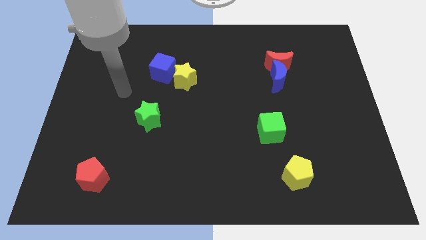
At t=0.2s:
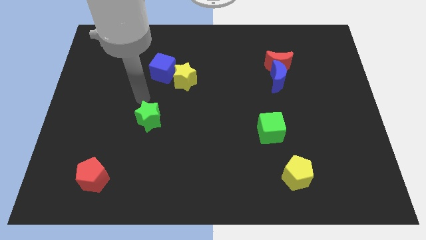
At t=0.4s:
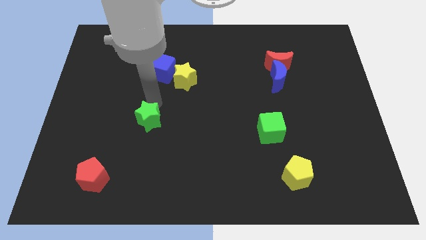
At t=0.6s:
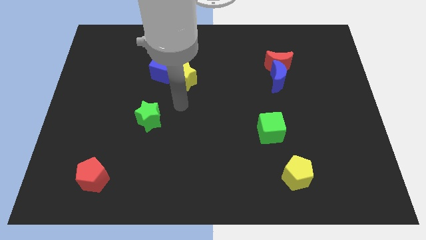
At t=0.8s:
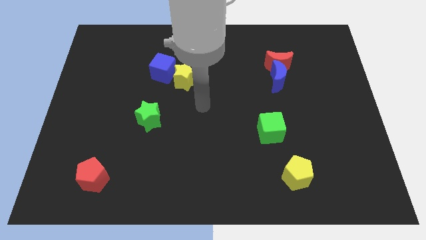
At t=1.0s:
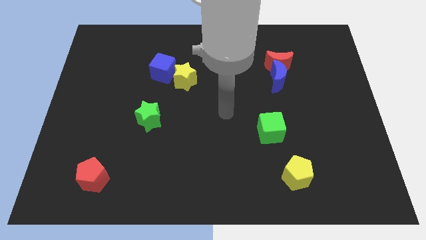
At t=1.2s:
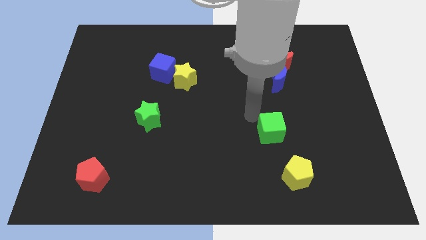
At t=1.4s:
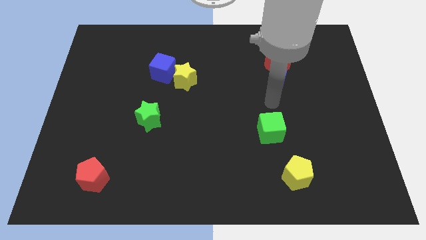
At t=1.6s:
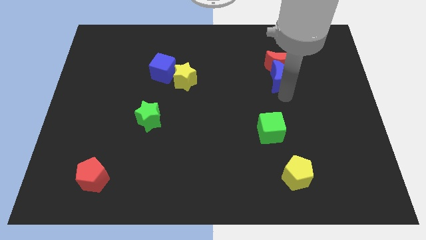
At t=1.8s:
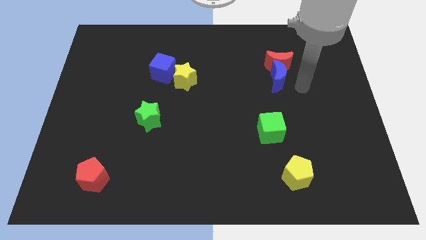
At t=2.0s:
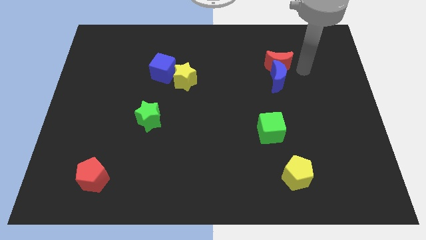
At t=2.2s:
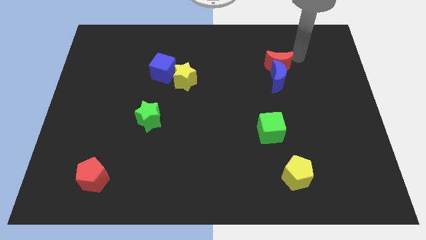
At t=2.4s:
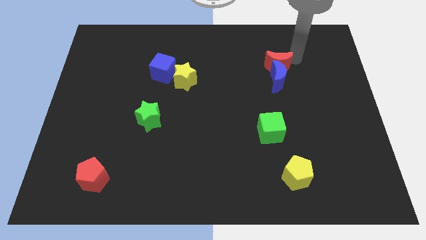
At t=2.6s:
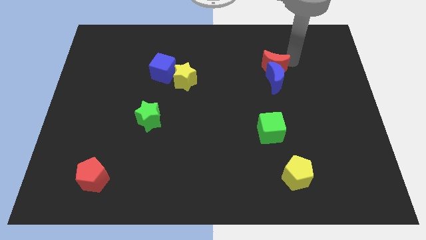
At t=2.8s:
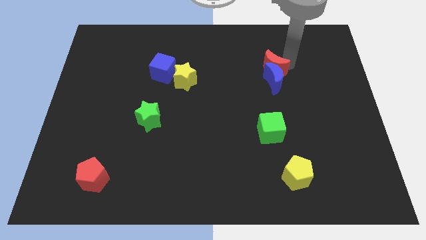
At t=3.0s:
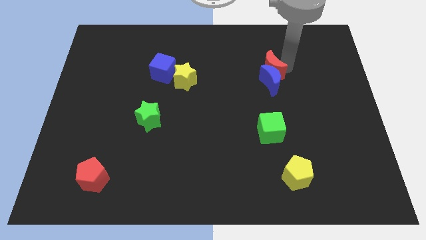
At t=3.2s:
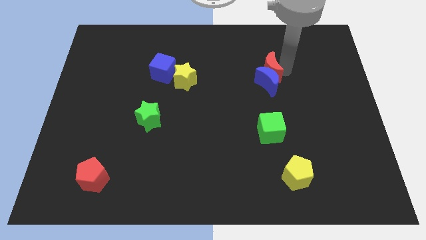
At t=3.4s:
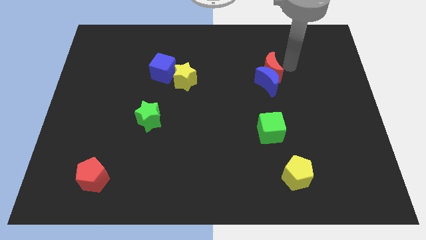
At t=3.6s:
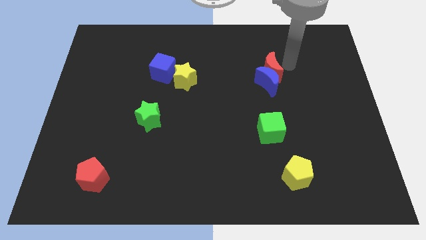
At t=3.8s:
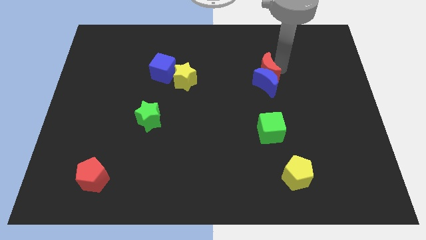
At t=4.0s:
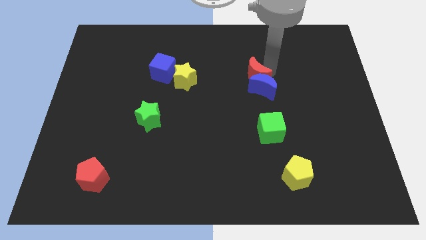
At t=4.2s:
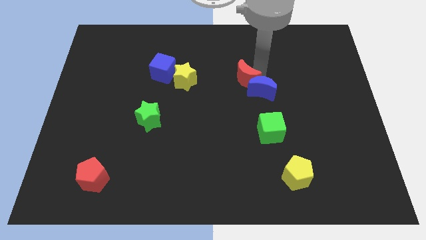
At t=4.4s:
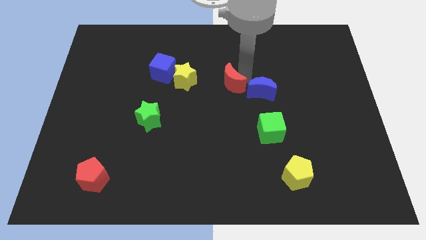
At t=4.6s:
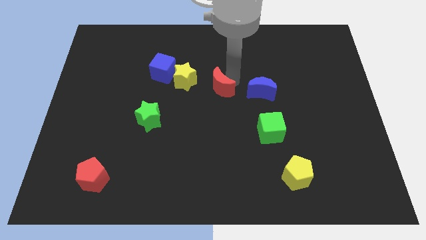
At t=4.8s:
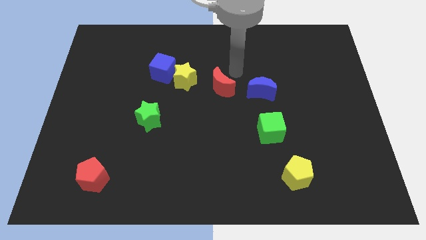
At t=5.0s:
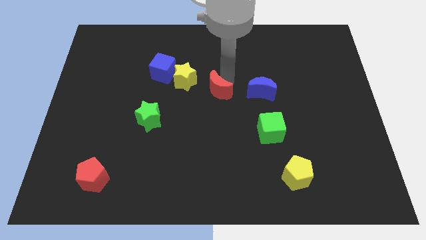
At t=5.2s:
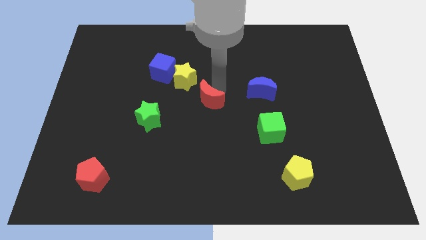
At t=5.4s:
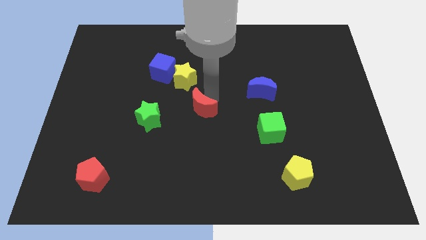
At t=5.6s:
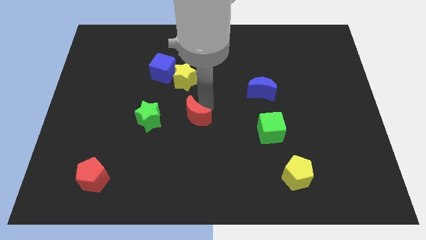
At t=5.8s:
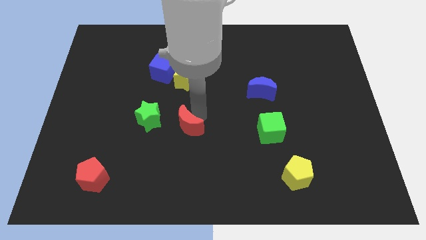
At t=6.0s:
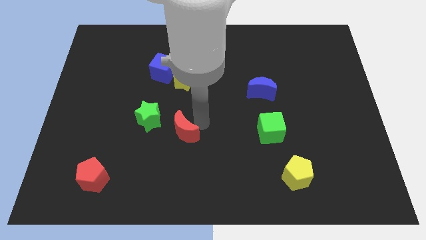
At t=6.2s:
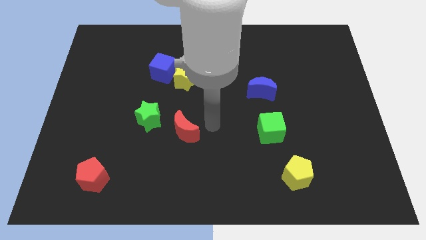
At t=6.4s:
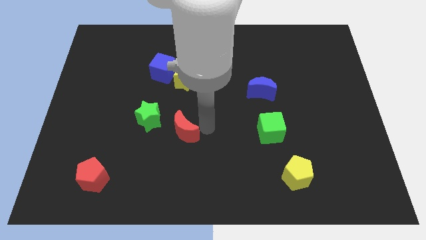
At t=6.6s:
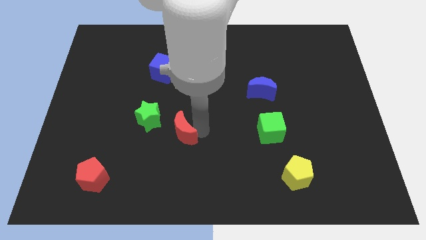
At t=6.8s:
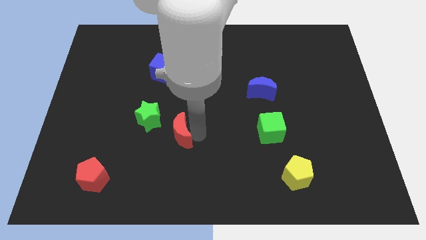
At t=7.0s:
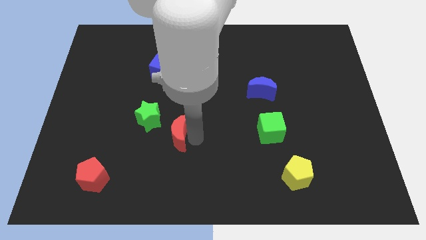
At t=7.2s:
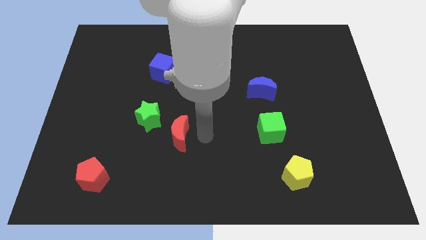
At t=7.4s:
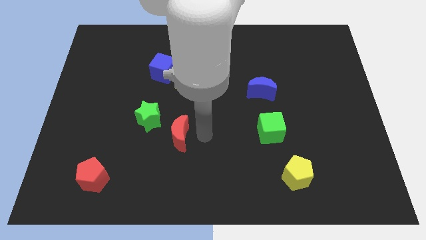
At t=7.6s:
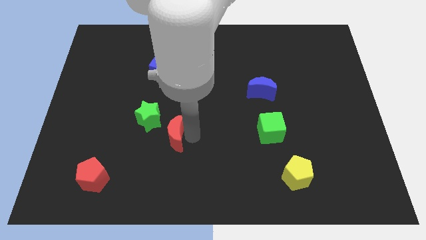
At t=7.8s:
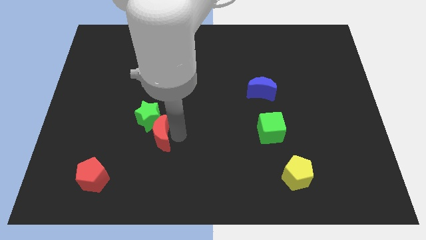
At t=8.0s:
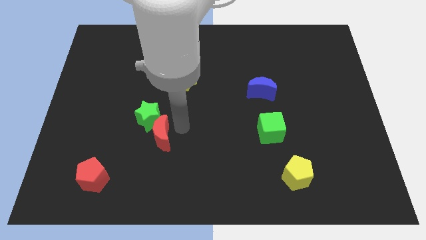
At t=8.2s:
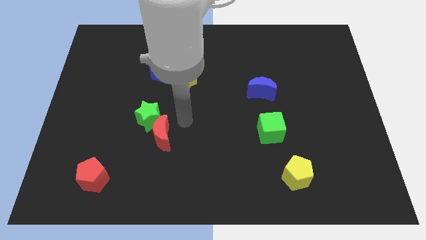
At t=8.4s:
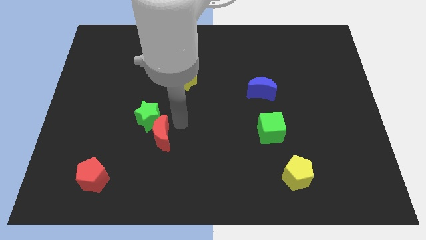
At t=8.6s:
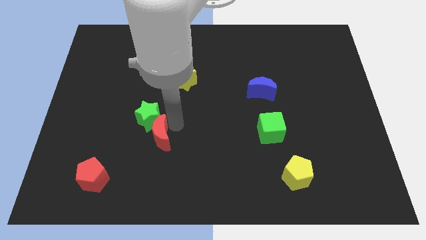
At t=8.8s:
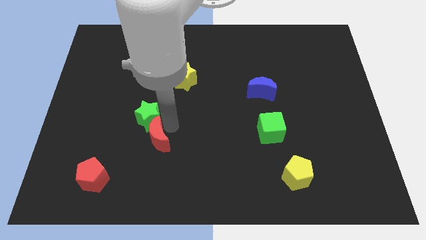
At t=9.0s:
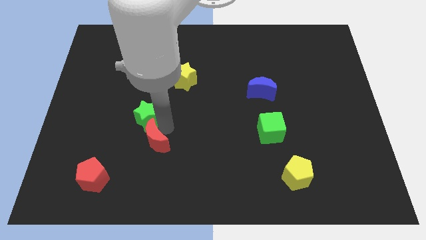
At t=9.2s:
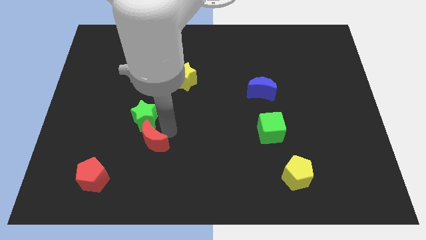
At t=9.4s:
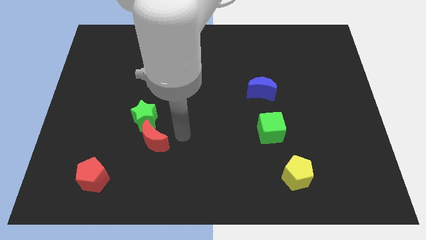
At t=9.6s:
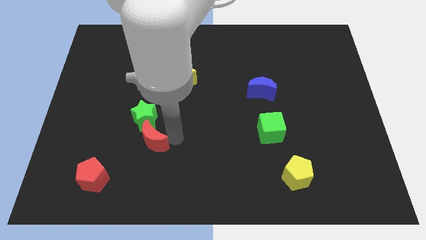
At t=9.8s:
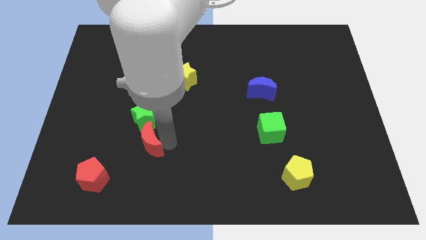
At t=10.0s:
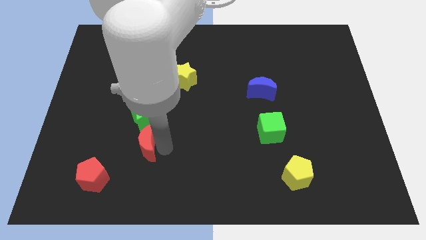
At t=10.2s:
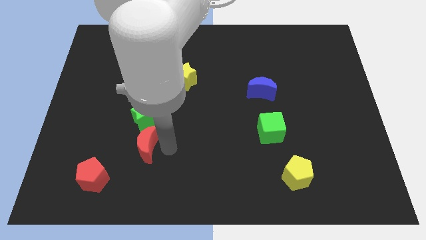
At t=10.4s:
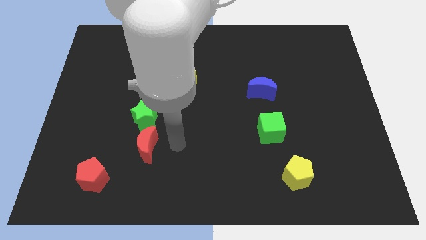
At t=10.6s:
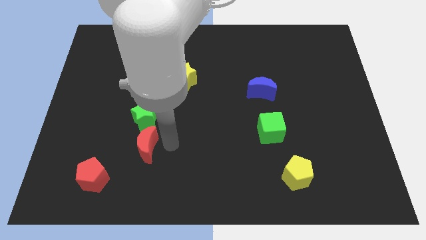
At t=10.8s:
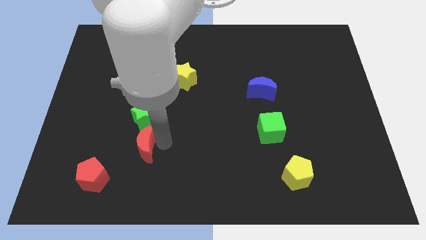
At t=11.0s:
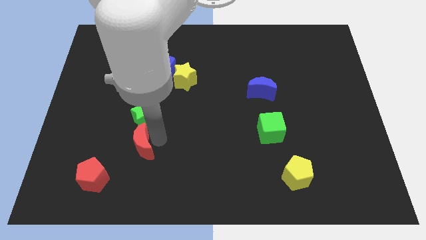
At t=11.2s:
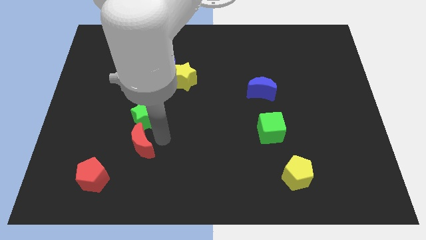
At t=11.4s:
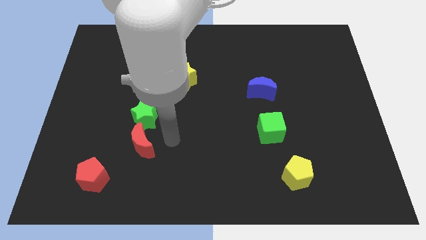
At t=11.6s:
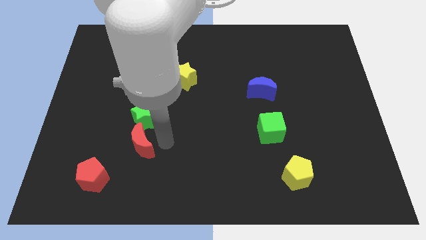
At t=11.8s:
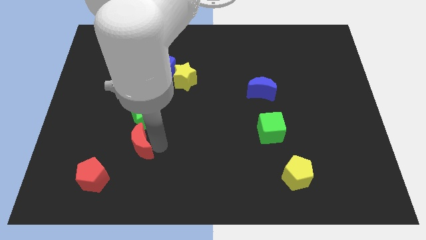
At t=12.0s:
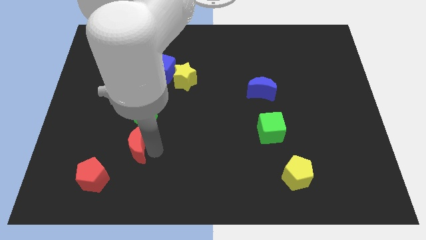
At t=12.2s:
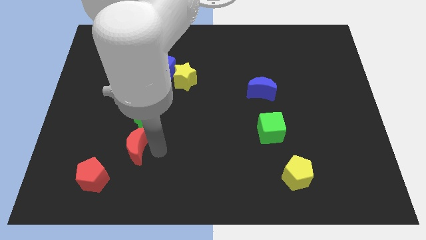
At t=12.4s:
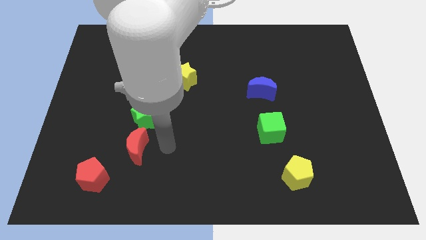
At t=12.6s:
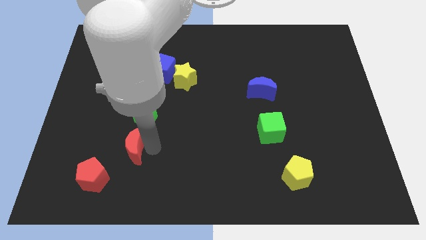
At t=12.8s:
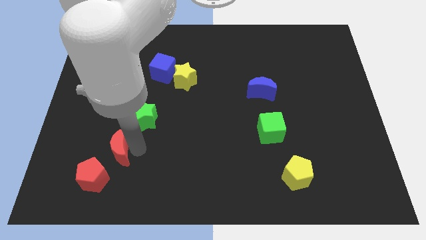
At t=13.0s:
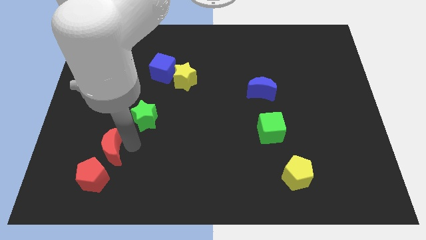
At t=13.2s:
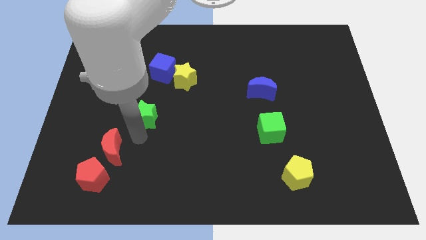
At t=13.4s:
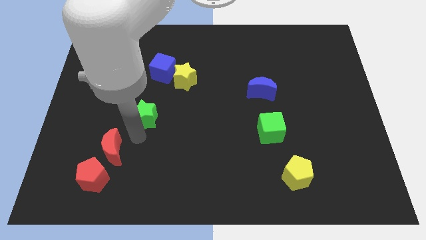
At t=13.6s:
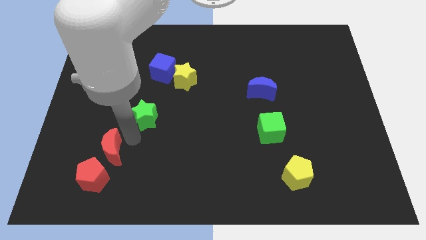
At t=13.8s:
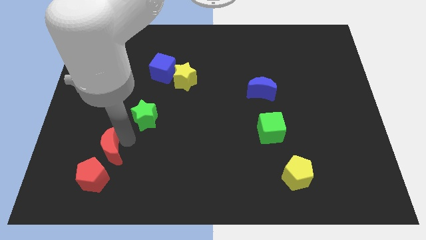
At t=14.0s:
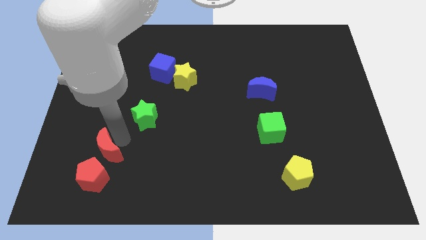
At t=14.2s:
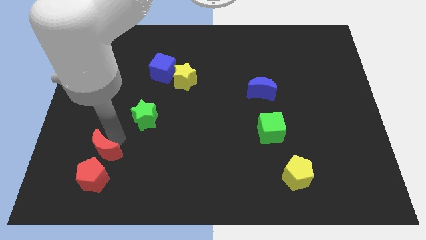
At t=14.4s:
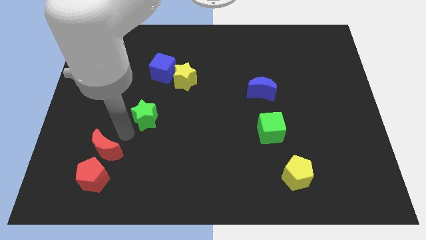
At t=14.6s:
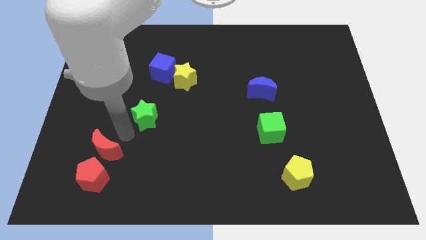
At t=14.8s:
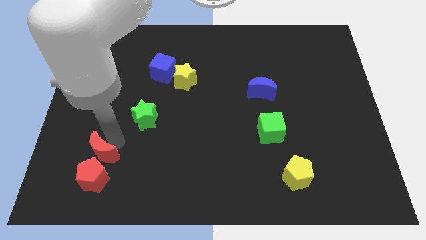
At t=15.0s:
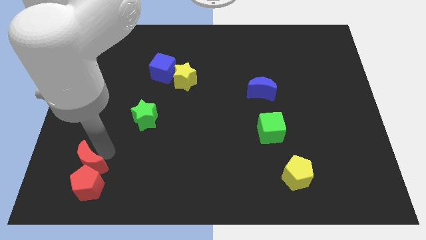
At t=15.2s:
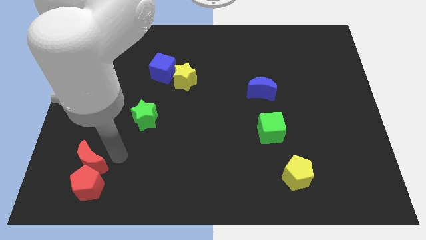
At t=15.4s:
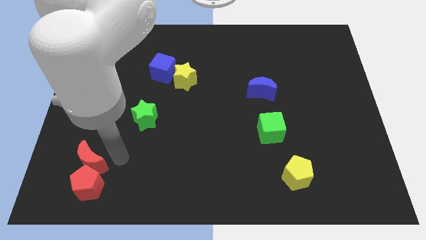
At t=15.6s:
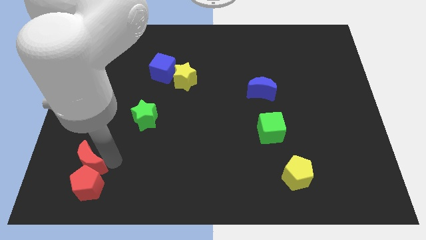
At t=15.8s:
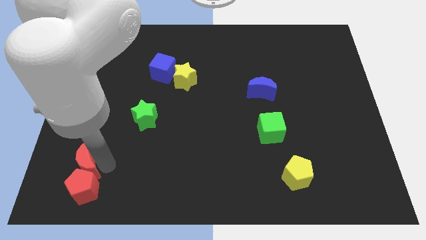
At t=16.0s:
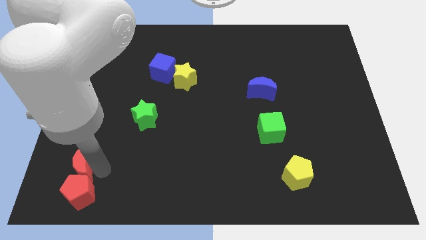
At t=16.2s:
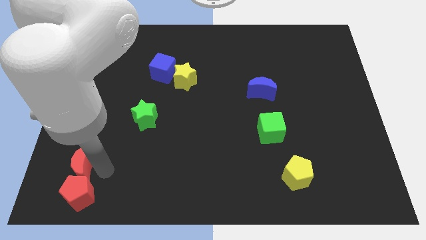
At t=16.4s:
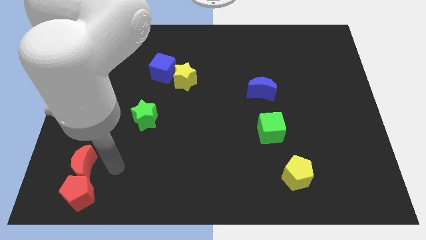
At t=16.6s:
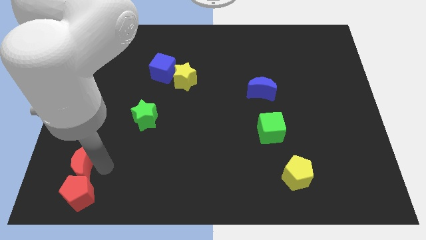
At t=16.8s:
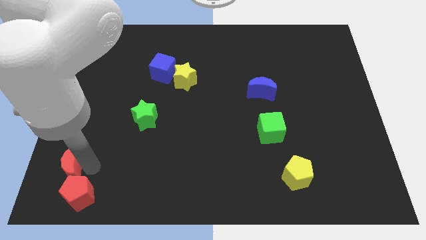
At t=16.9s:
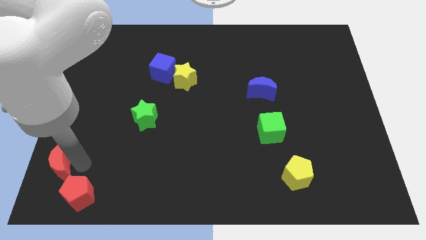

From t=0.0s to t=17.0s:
move the red moon to the bottom left of the board
